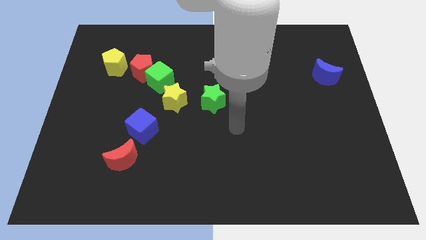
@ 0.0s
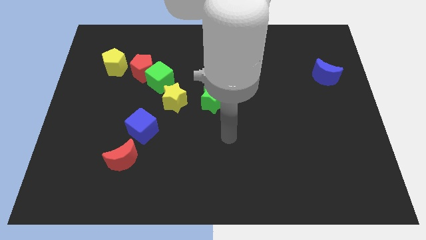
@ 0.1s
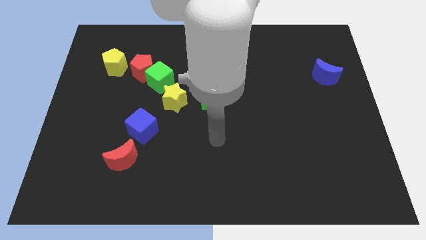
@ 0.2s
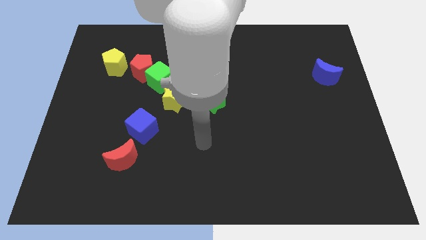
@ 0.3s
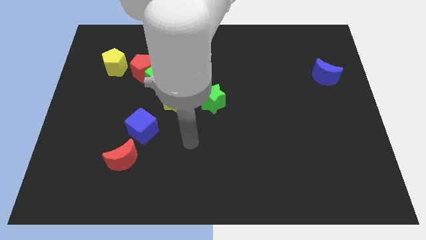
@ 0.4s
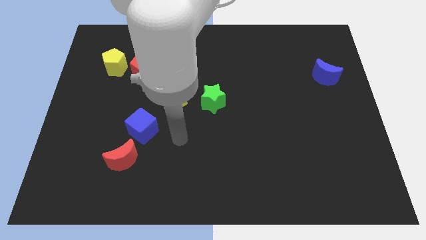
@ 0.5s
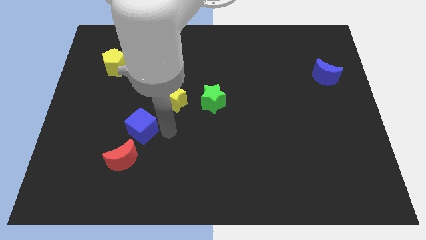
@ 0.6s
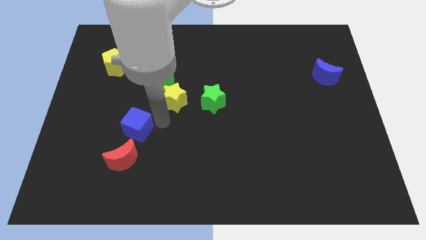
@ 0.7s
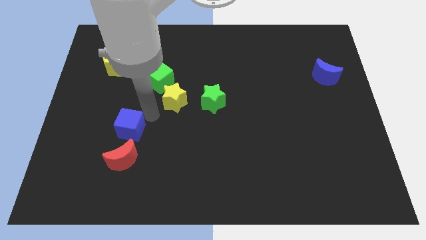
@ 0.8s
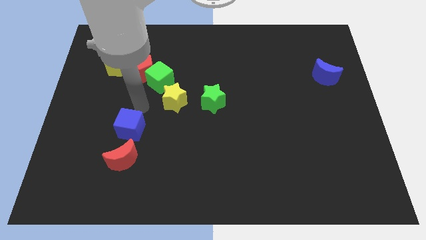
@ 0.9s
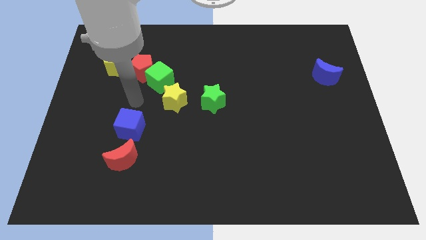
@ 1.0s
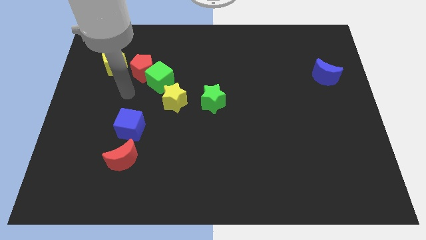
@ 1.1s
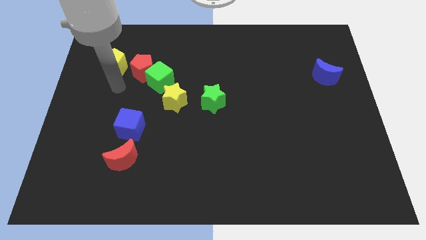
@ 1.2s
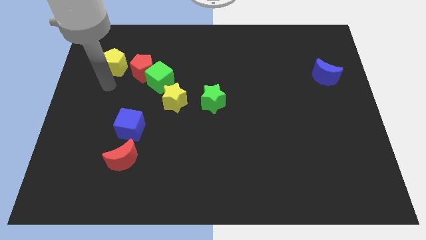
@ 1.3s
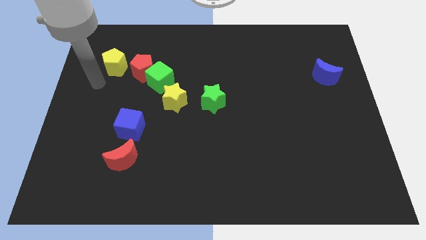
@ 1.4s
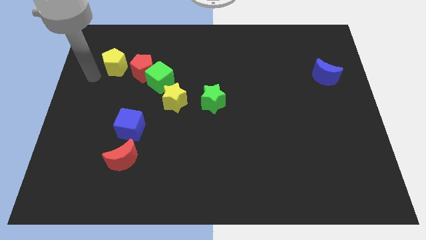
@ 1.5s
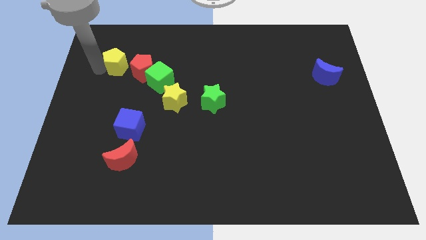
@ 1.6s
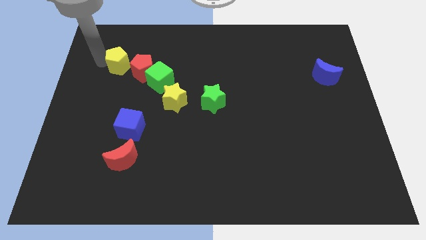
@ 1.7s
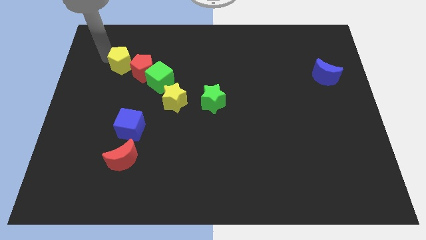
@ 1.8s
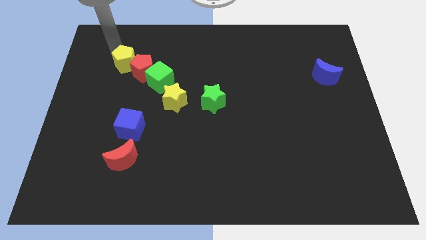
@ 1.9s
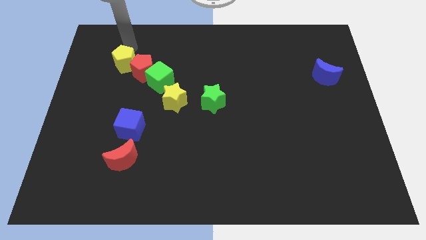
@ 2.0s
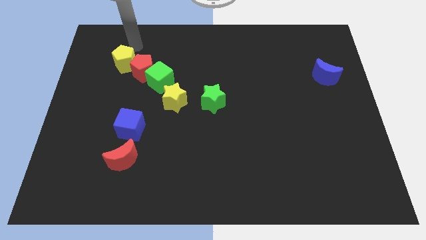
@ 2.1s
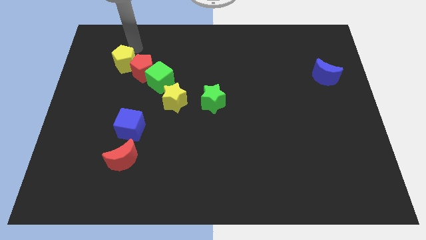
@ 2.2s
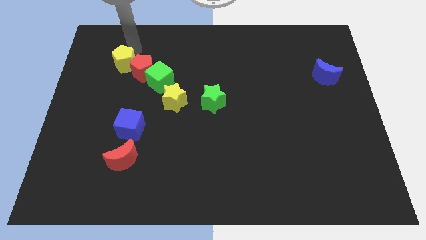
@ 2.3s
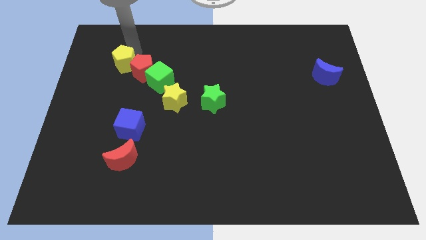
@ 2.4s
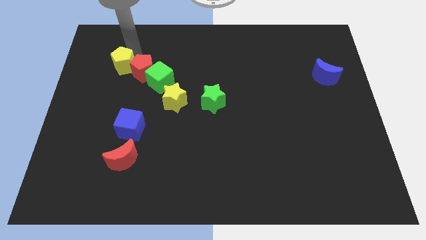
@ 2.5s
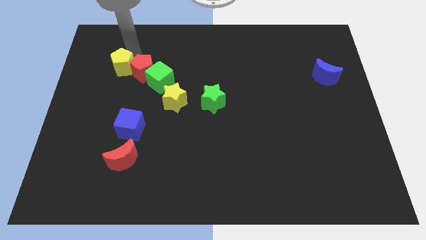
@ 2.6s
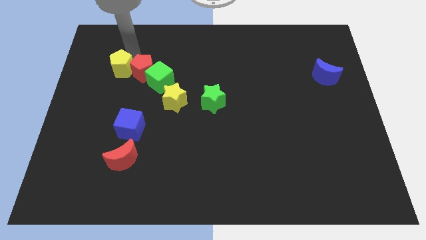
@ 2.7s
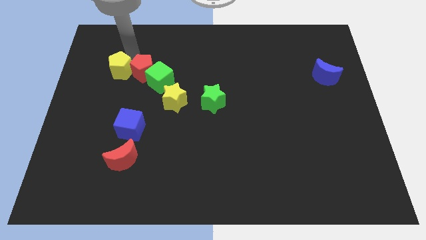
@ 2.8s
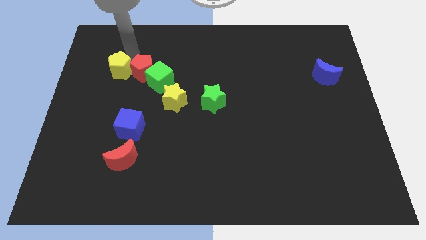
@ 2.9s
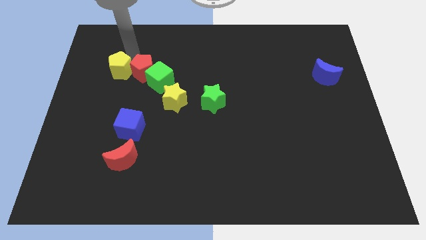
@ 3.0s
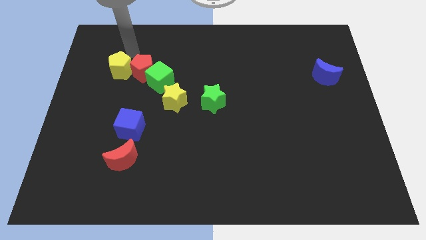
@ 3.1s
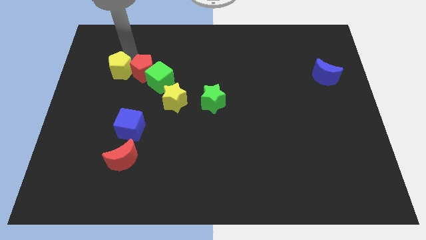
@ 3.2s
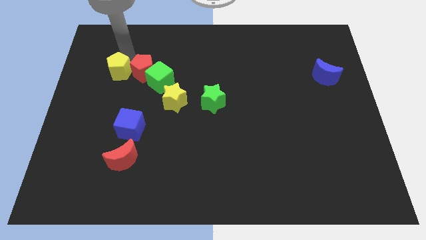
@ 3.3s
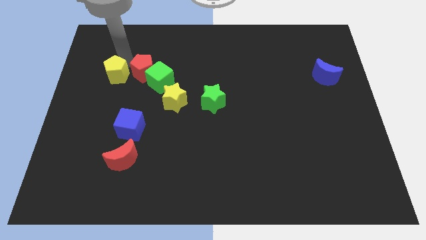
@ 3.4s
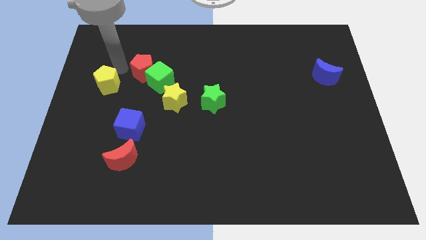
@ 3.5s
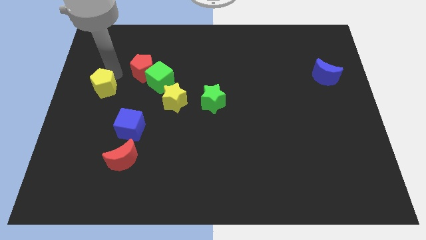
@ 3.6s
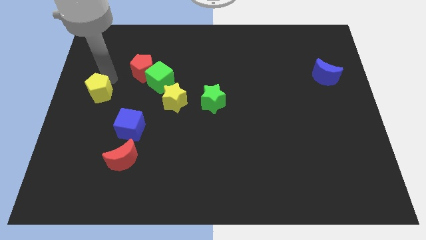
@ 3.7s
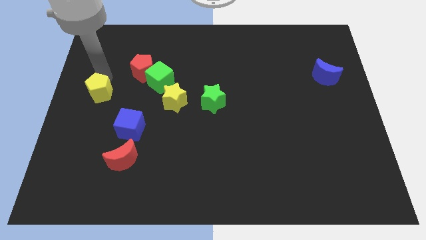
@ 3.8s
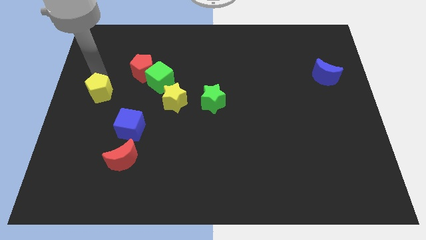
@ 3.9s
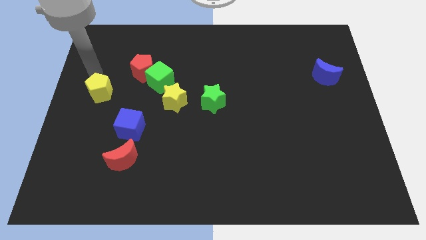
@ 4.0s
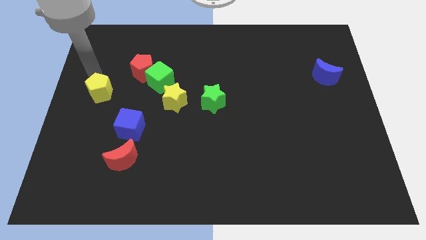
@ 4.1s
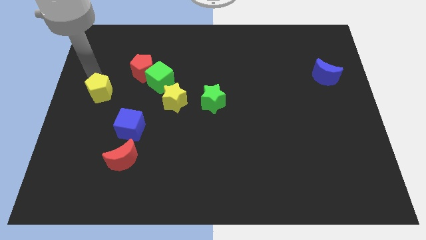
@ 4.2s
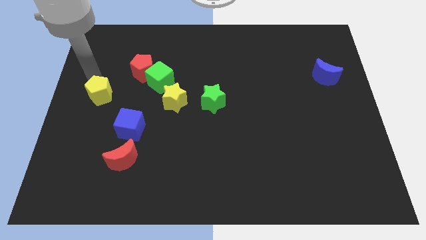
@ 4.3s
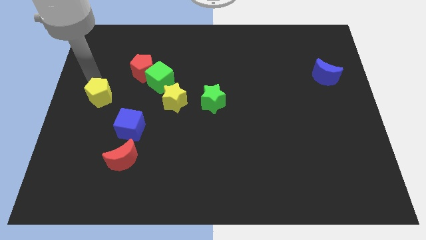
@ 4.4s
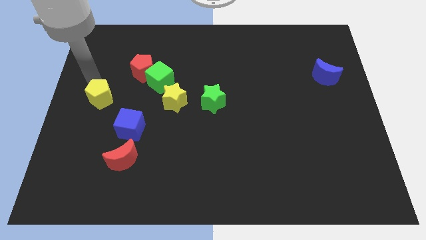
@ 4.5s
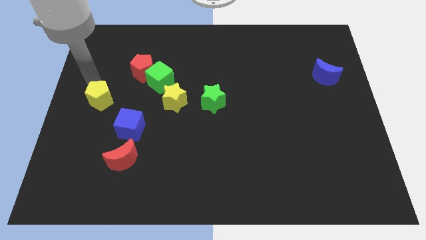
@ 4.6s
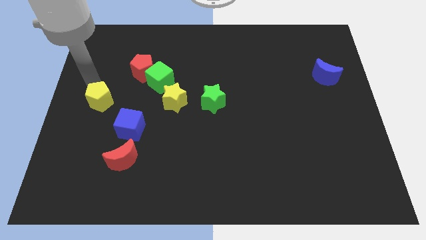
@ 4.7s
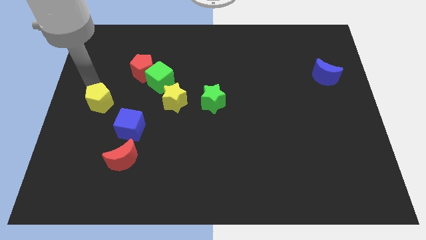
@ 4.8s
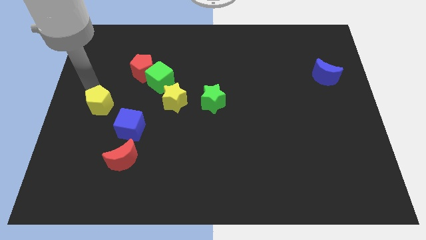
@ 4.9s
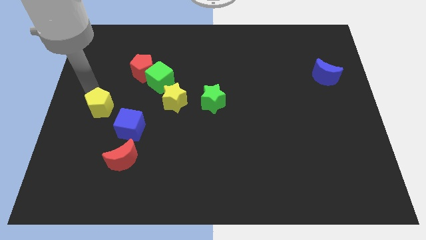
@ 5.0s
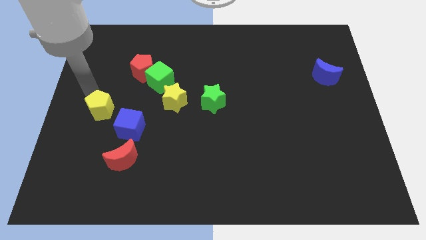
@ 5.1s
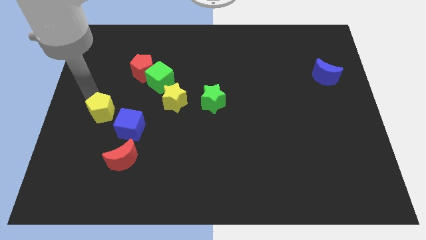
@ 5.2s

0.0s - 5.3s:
slide the yellow pentagon to the left side of the blue cube

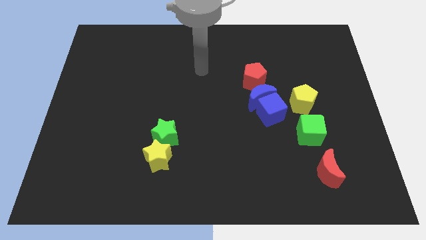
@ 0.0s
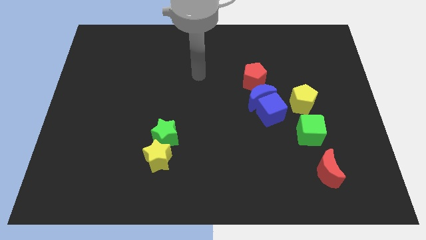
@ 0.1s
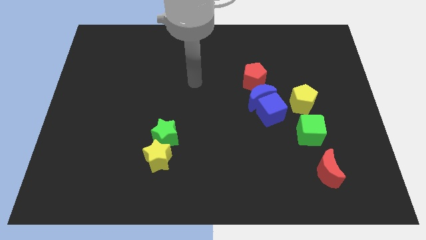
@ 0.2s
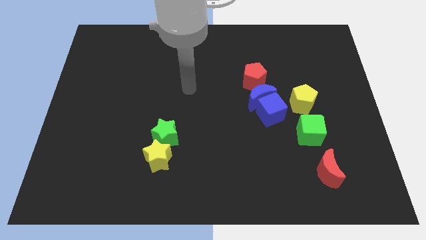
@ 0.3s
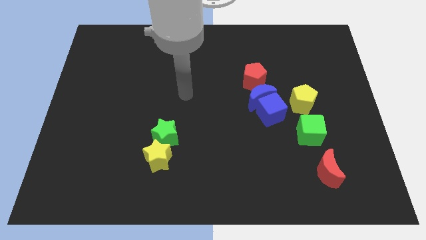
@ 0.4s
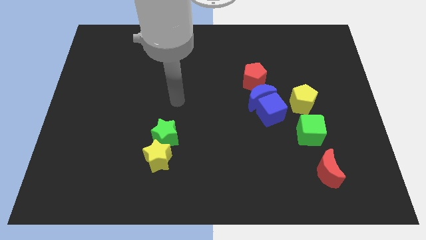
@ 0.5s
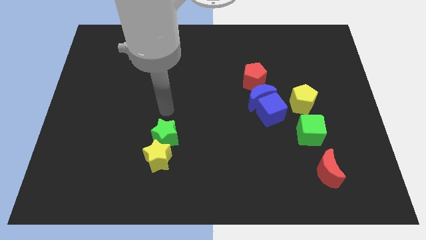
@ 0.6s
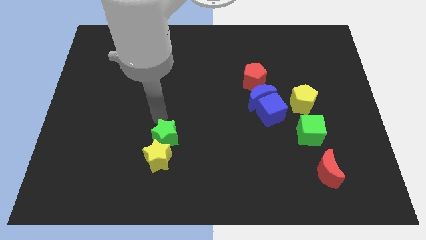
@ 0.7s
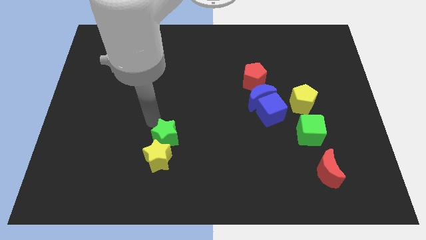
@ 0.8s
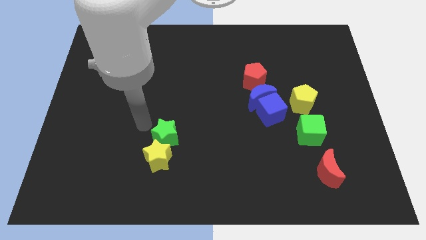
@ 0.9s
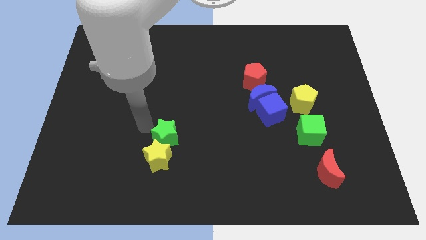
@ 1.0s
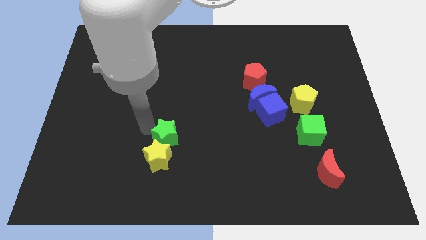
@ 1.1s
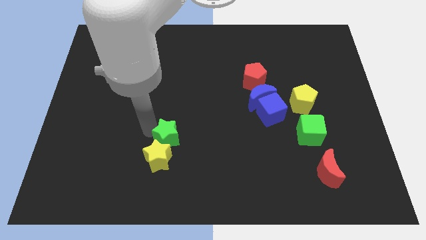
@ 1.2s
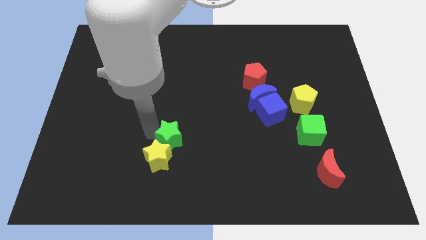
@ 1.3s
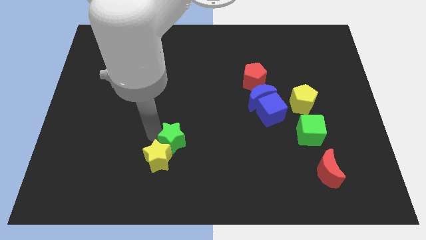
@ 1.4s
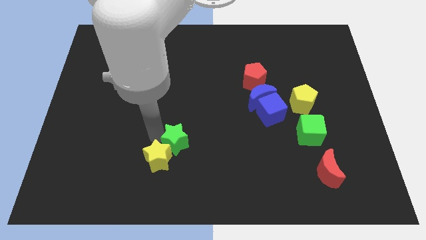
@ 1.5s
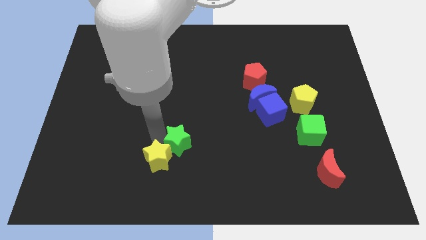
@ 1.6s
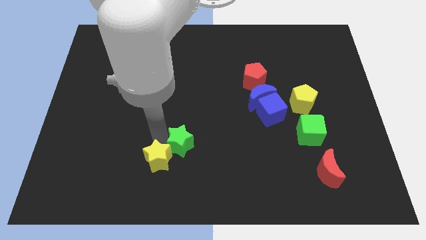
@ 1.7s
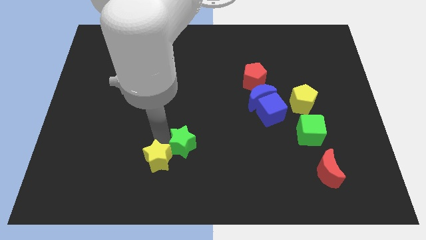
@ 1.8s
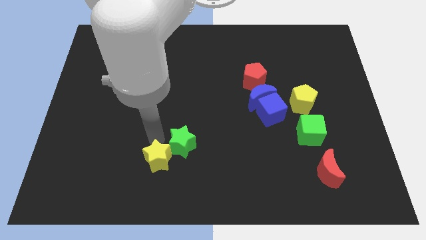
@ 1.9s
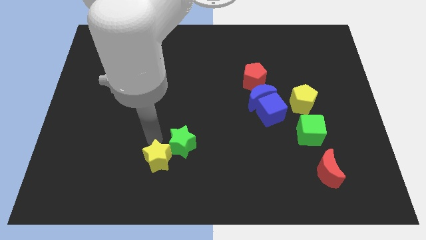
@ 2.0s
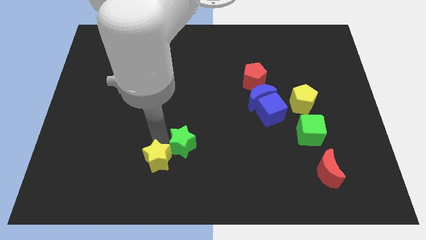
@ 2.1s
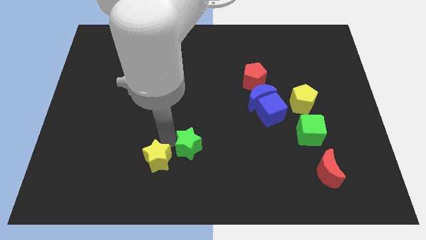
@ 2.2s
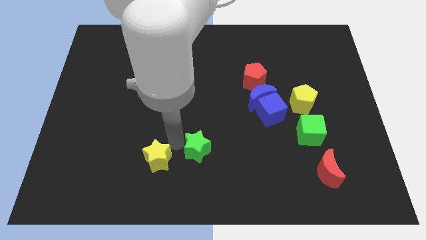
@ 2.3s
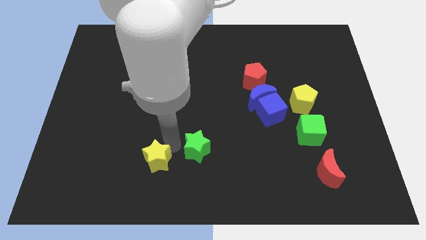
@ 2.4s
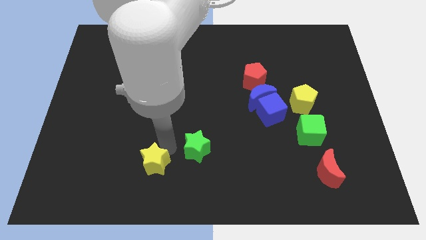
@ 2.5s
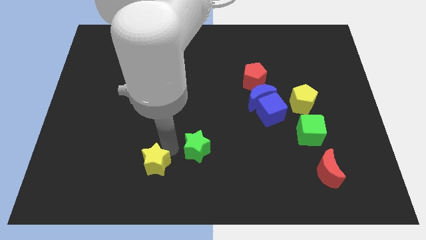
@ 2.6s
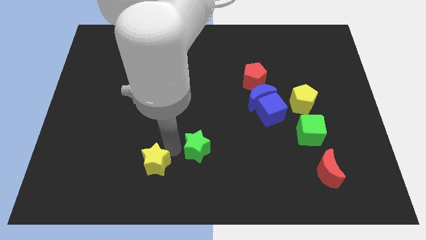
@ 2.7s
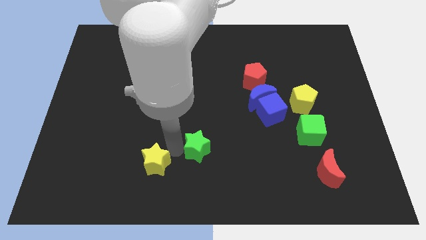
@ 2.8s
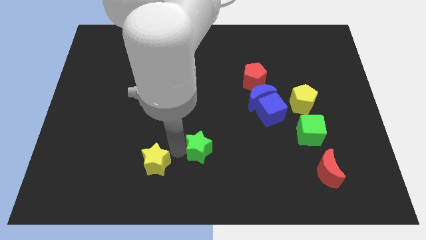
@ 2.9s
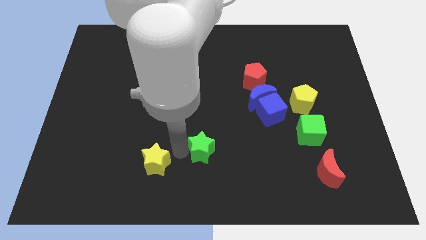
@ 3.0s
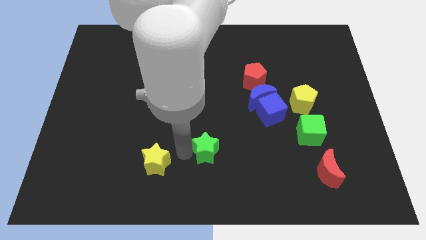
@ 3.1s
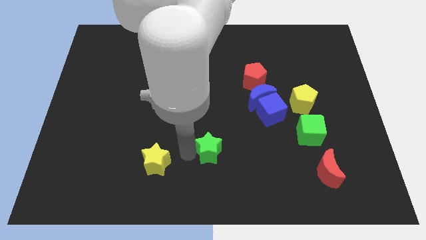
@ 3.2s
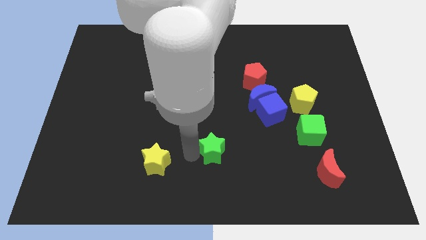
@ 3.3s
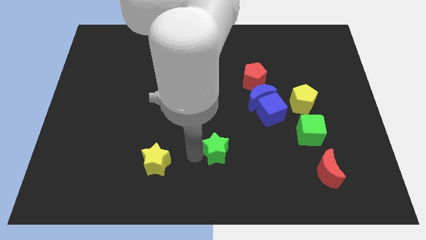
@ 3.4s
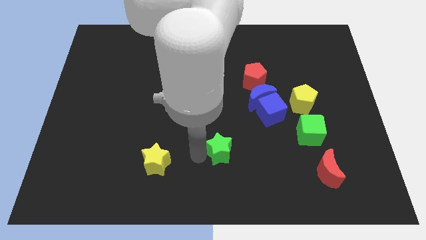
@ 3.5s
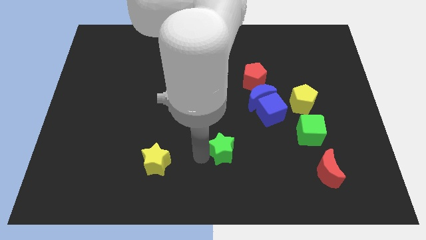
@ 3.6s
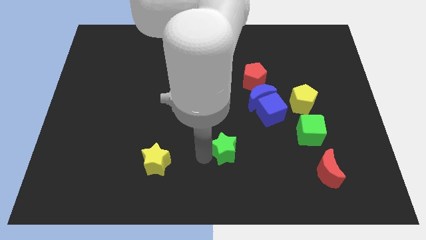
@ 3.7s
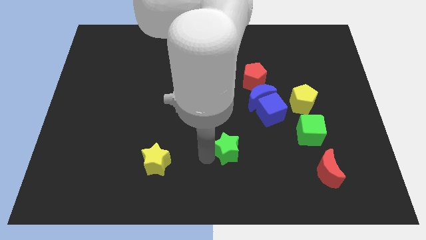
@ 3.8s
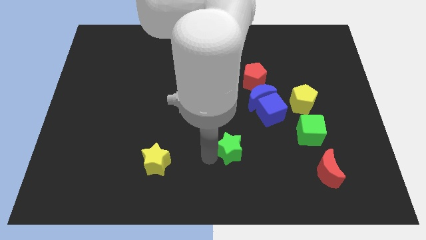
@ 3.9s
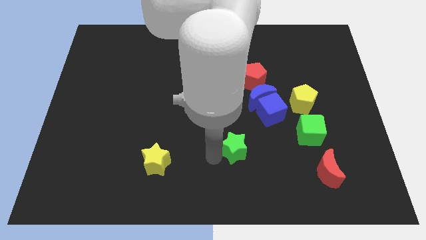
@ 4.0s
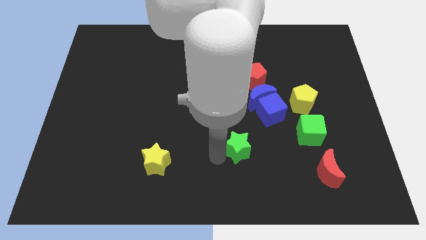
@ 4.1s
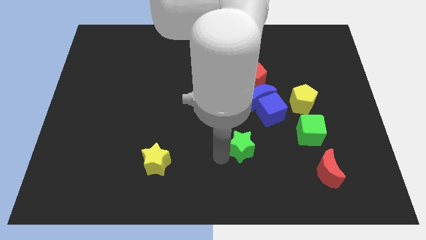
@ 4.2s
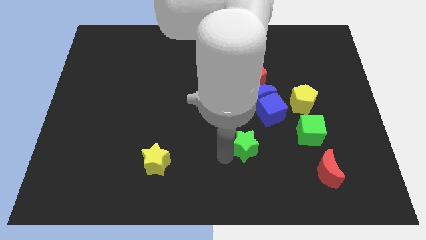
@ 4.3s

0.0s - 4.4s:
put the green star to the bottom side of the blue moon
